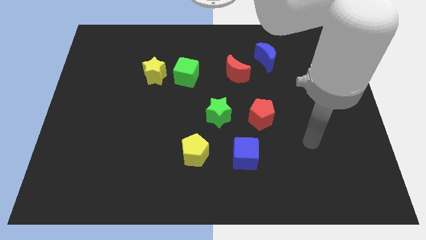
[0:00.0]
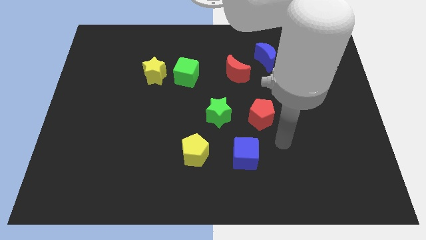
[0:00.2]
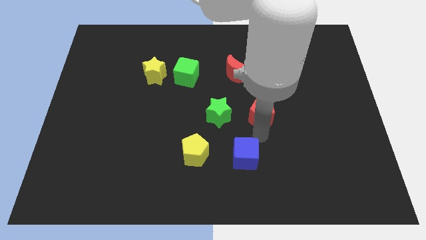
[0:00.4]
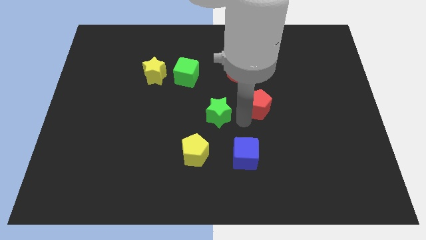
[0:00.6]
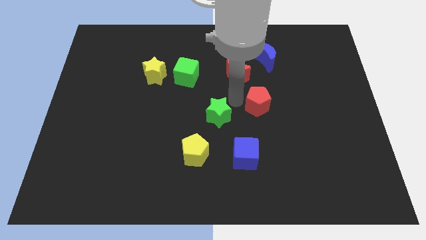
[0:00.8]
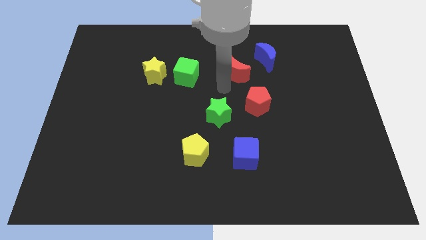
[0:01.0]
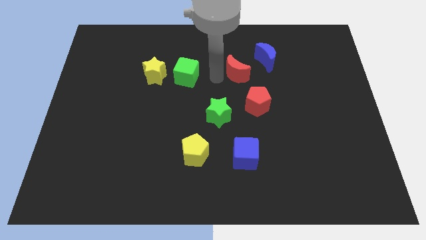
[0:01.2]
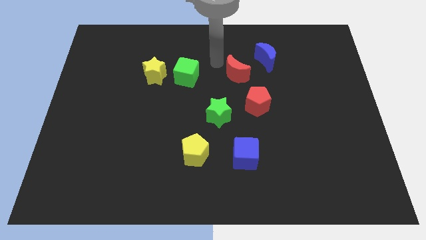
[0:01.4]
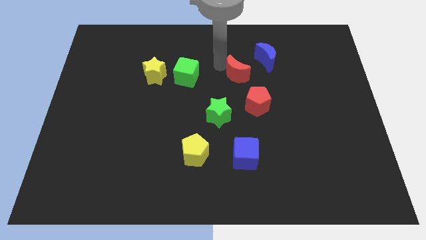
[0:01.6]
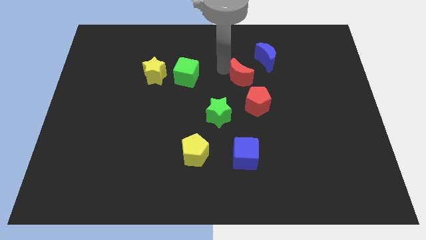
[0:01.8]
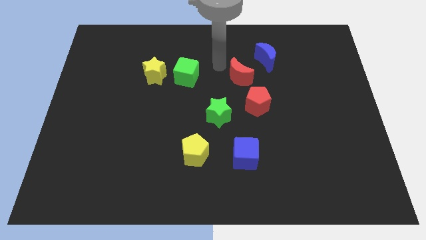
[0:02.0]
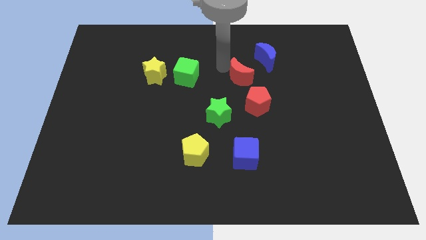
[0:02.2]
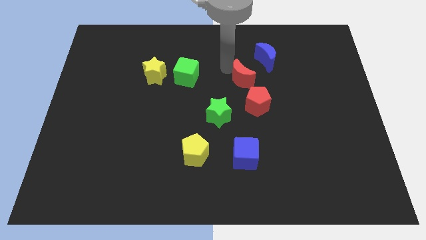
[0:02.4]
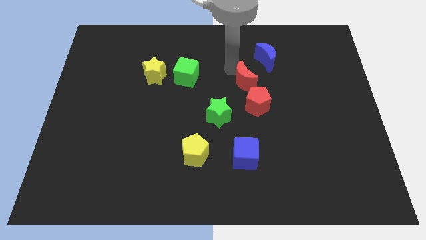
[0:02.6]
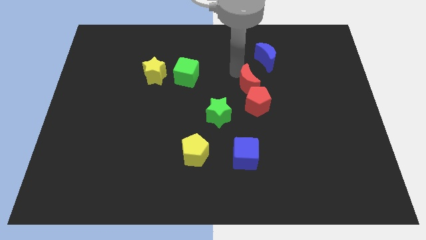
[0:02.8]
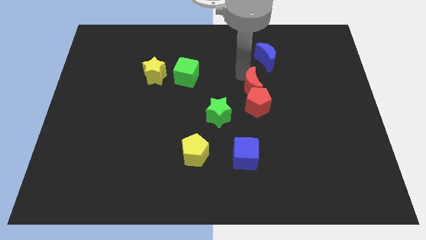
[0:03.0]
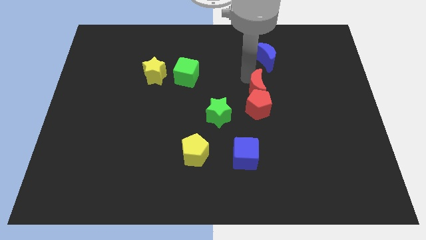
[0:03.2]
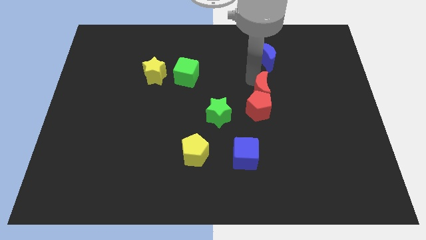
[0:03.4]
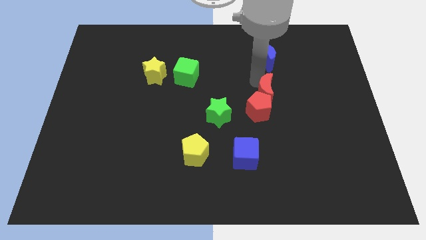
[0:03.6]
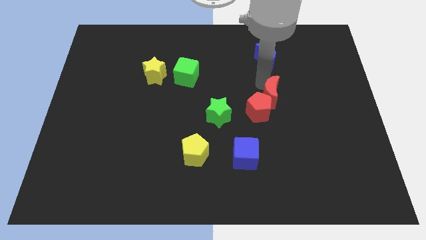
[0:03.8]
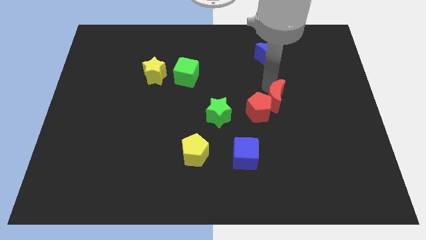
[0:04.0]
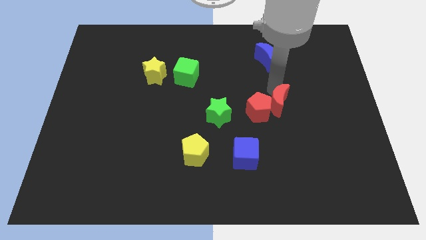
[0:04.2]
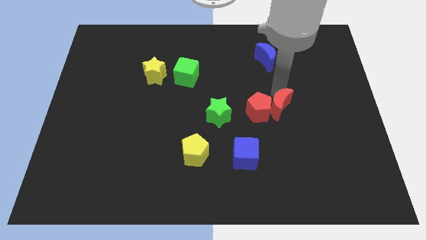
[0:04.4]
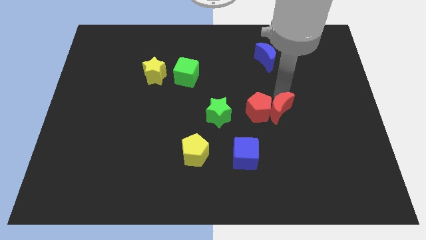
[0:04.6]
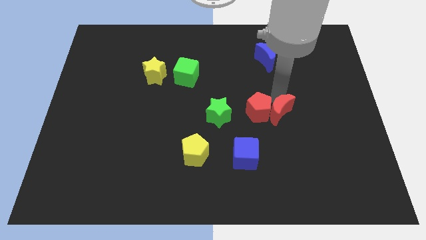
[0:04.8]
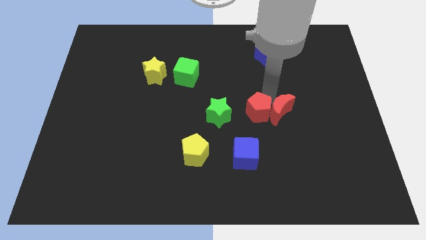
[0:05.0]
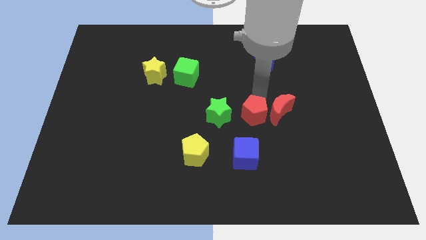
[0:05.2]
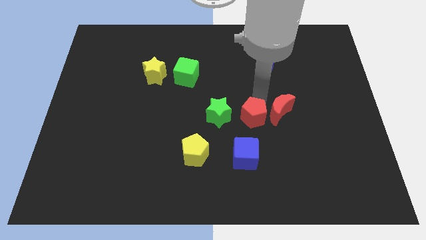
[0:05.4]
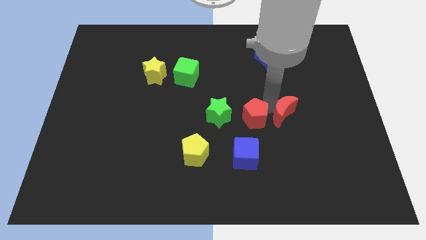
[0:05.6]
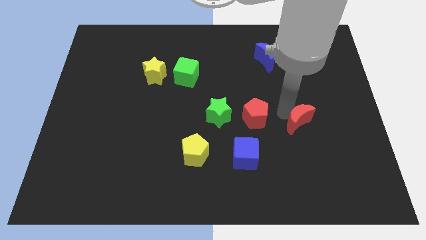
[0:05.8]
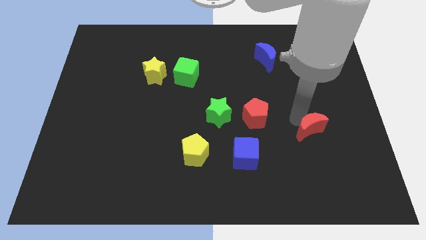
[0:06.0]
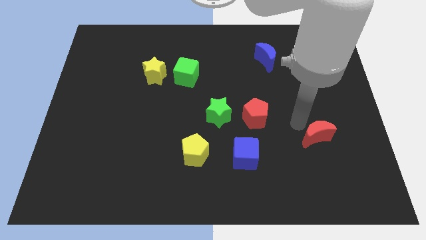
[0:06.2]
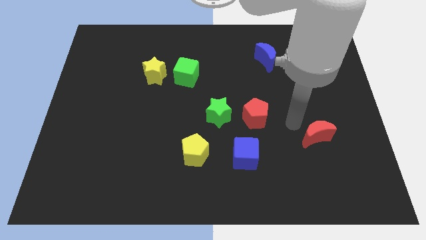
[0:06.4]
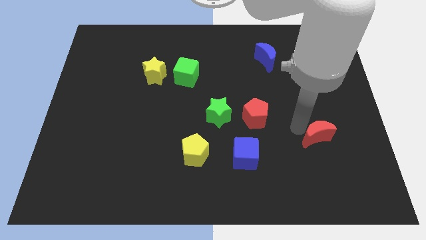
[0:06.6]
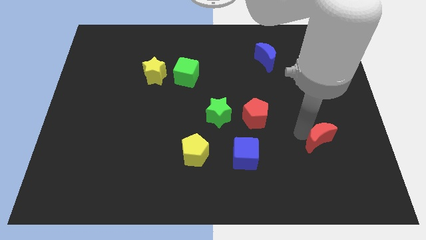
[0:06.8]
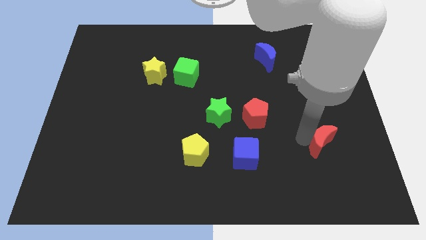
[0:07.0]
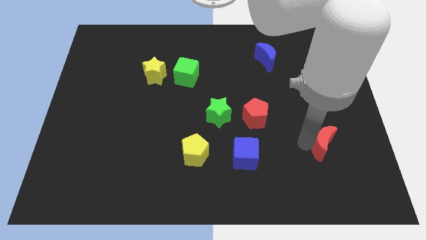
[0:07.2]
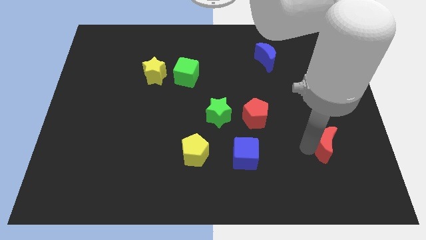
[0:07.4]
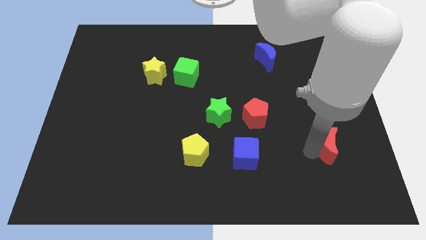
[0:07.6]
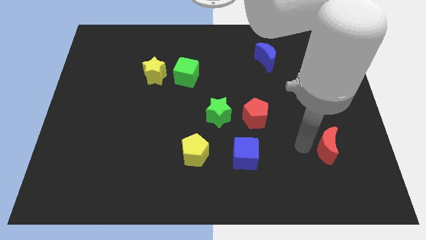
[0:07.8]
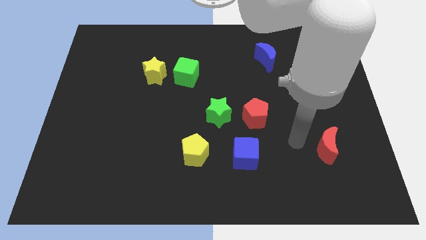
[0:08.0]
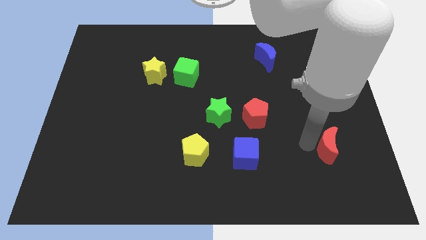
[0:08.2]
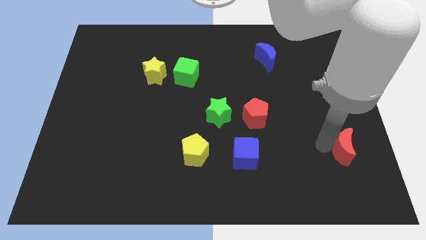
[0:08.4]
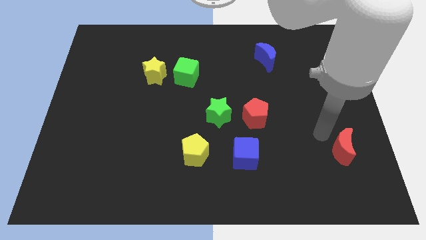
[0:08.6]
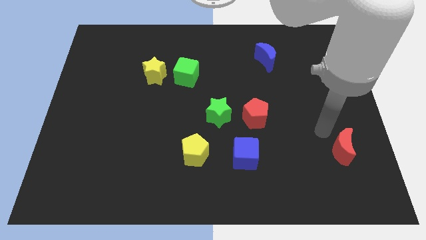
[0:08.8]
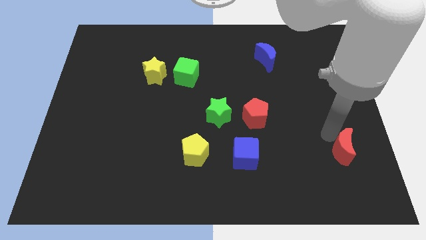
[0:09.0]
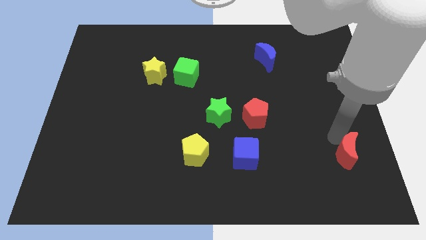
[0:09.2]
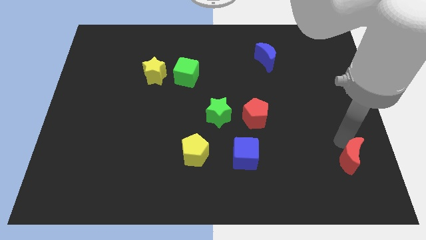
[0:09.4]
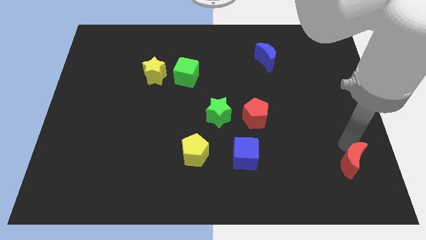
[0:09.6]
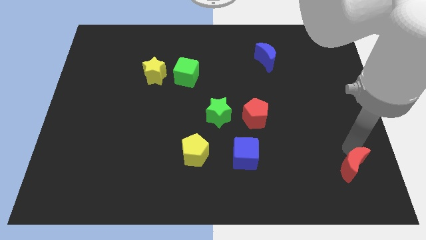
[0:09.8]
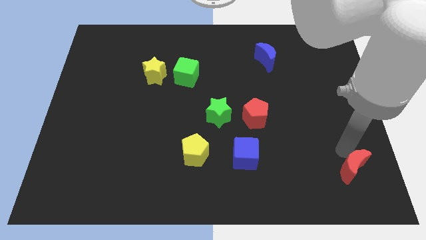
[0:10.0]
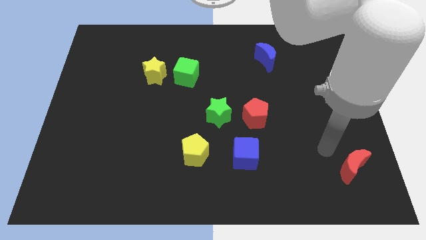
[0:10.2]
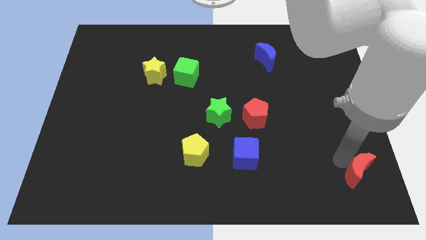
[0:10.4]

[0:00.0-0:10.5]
put the red moon to the bottom right of the board

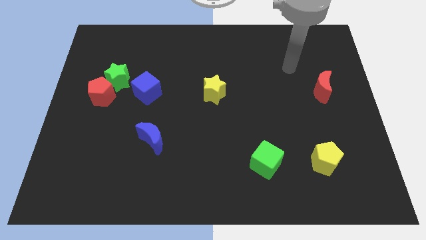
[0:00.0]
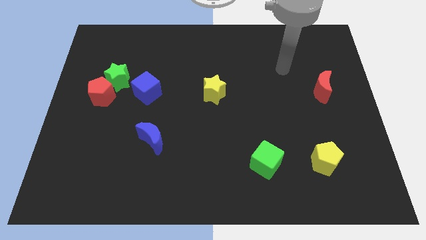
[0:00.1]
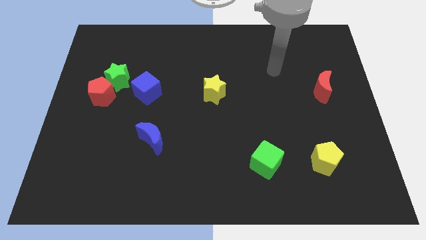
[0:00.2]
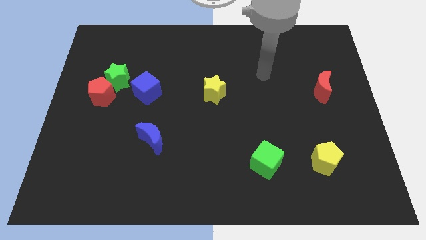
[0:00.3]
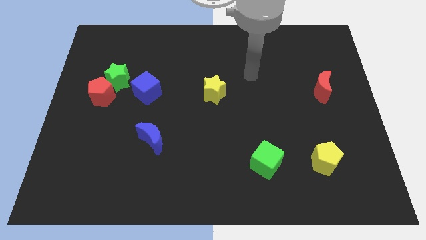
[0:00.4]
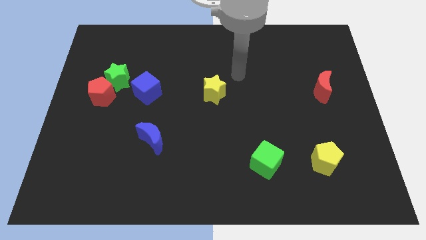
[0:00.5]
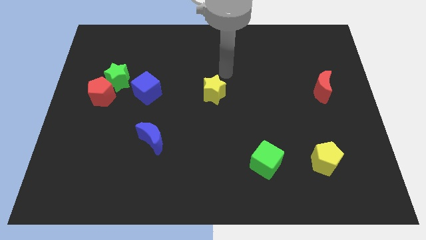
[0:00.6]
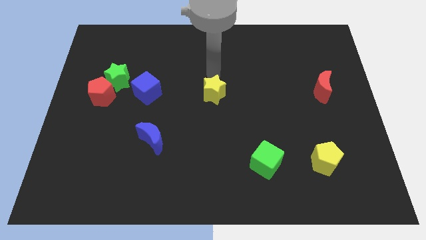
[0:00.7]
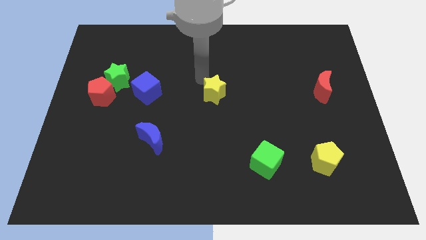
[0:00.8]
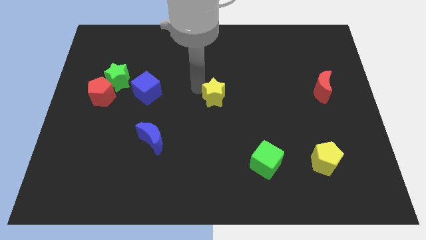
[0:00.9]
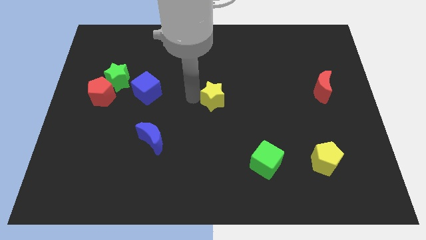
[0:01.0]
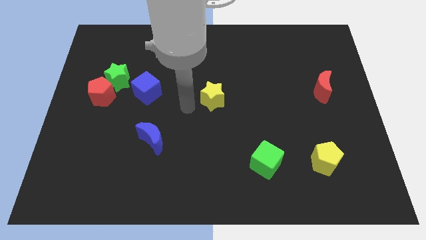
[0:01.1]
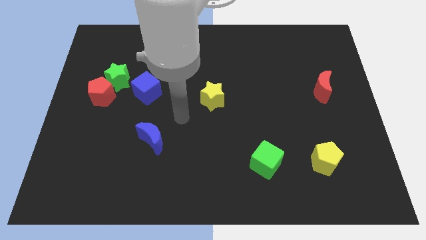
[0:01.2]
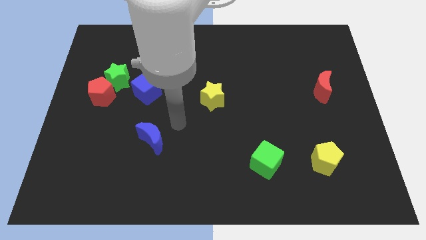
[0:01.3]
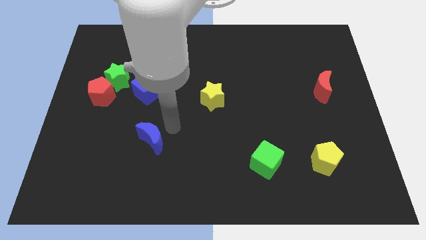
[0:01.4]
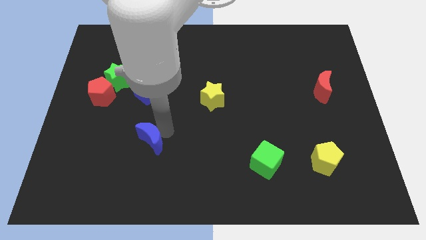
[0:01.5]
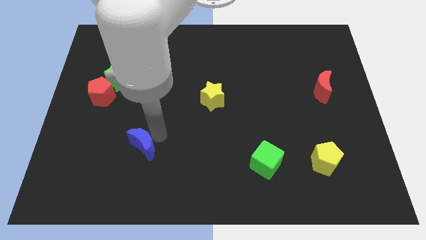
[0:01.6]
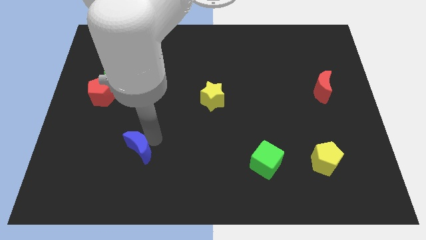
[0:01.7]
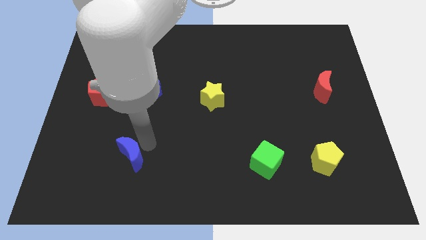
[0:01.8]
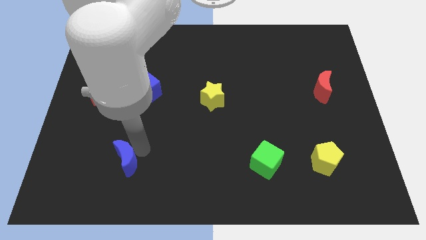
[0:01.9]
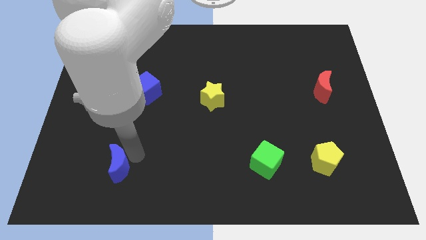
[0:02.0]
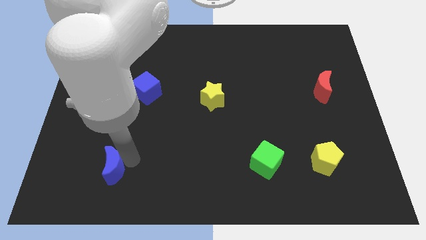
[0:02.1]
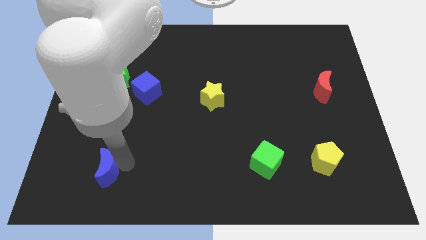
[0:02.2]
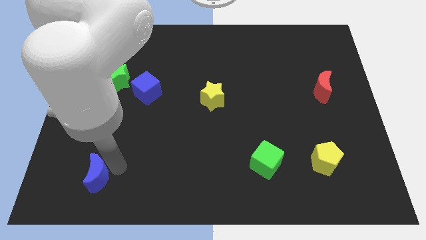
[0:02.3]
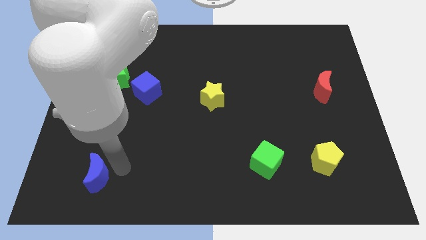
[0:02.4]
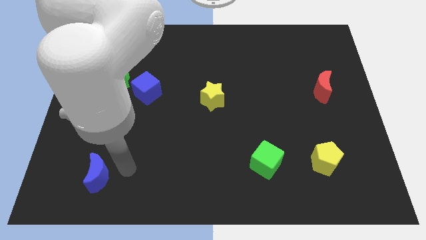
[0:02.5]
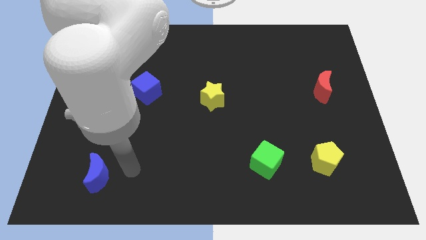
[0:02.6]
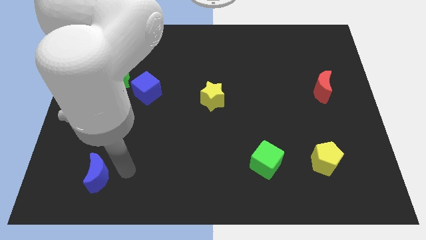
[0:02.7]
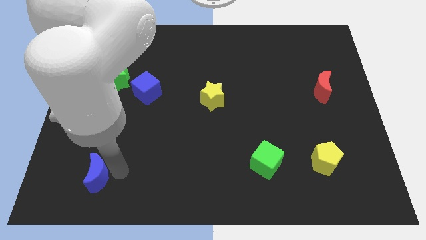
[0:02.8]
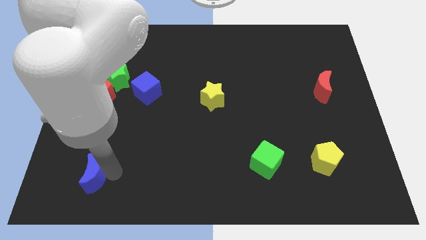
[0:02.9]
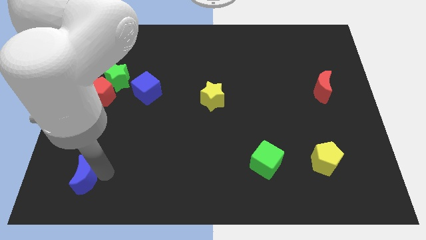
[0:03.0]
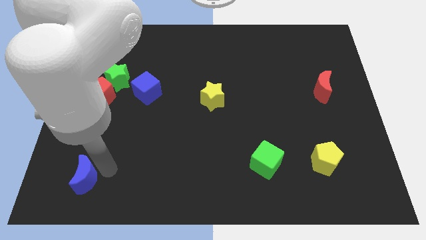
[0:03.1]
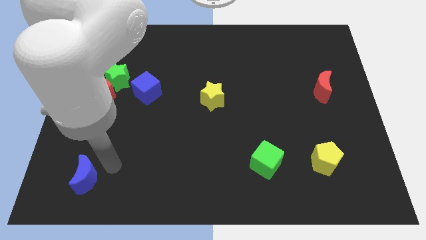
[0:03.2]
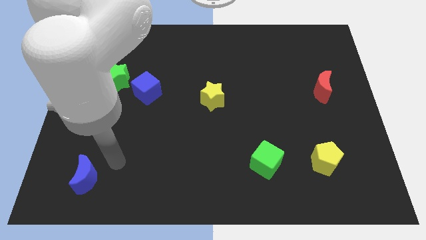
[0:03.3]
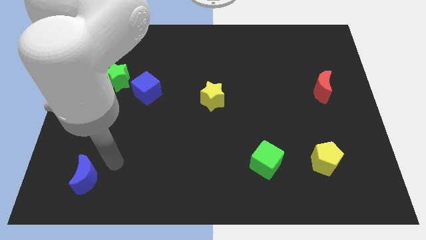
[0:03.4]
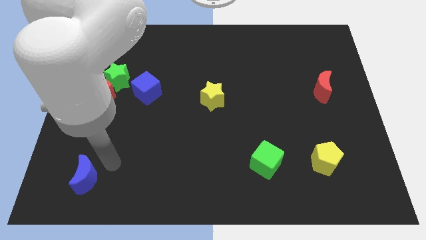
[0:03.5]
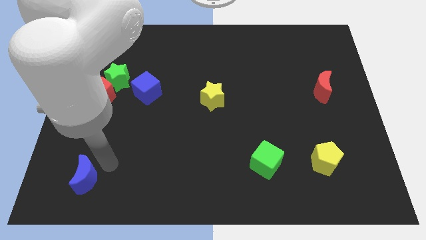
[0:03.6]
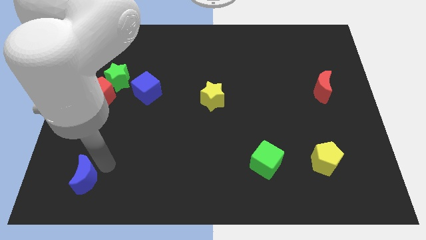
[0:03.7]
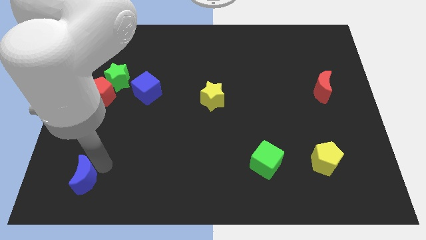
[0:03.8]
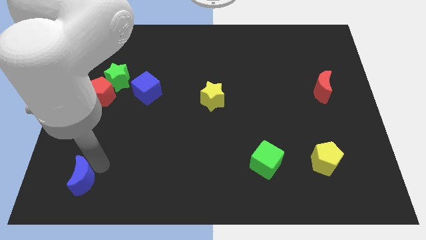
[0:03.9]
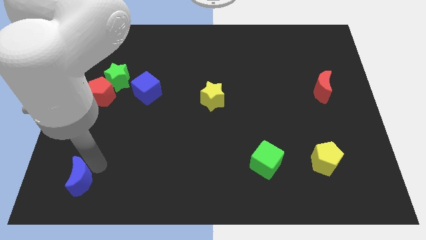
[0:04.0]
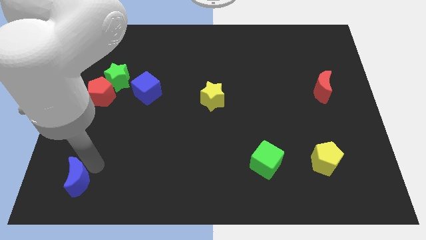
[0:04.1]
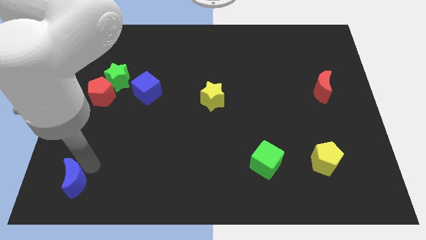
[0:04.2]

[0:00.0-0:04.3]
slide the blue moon to the bottom left
